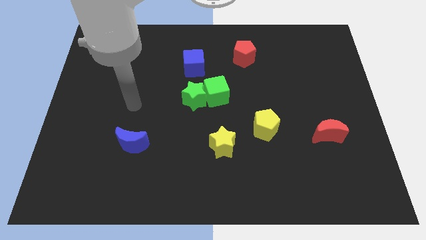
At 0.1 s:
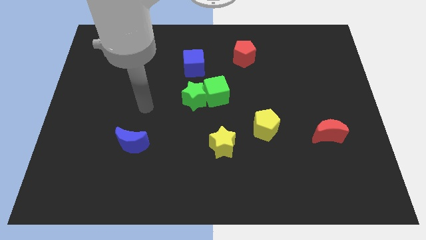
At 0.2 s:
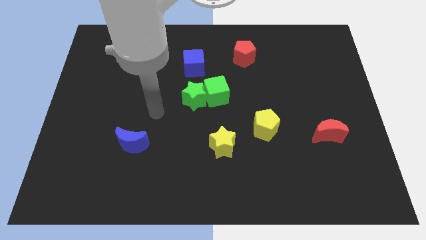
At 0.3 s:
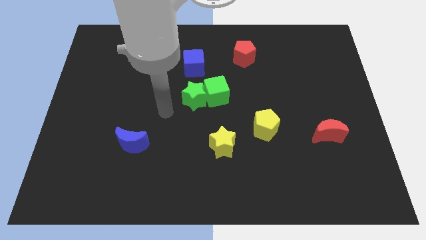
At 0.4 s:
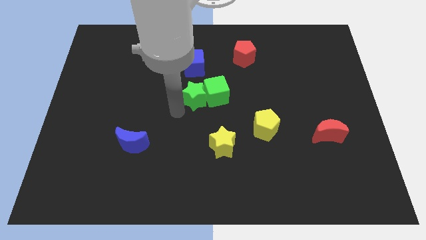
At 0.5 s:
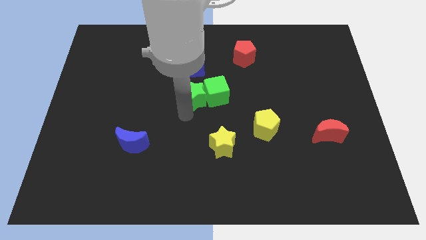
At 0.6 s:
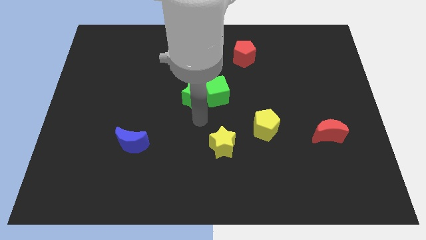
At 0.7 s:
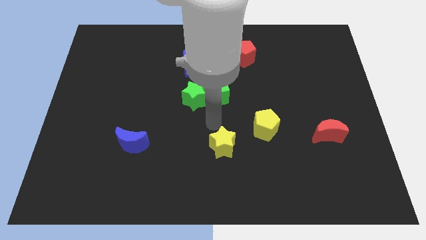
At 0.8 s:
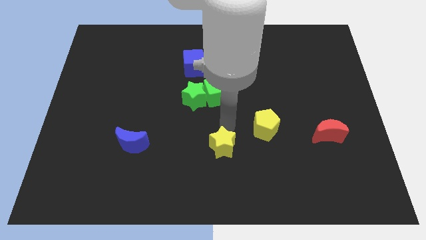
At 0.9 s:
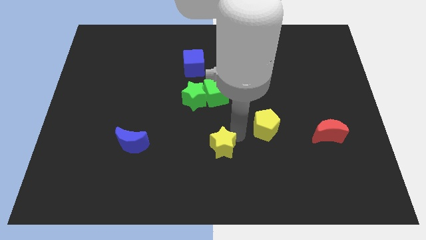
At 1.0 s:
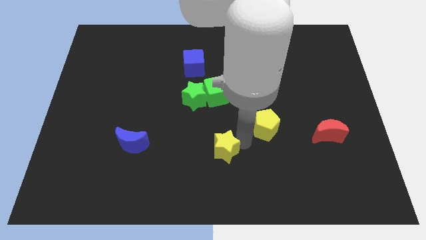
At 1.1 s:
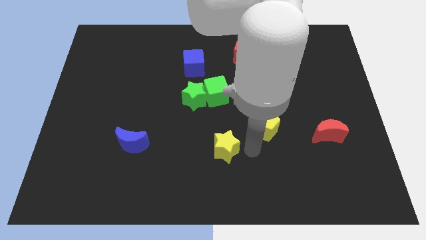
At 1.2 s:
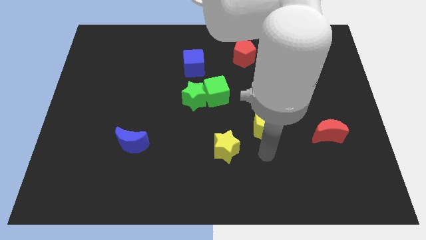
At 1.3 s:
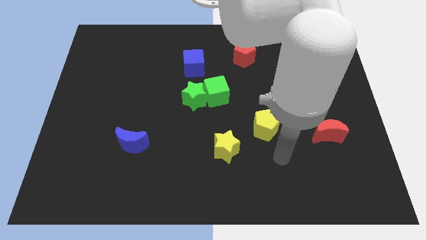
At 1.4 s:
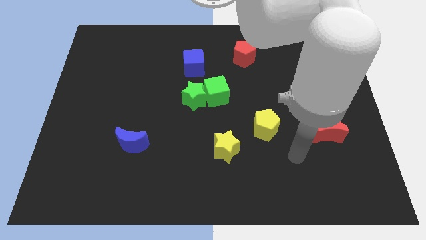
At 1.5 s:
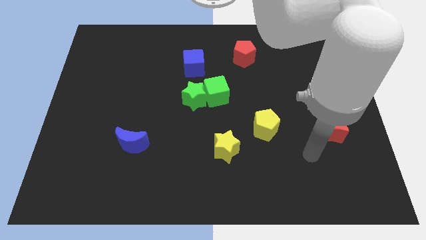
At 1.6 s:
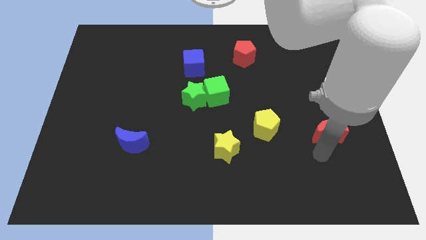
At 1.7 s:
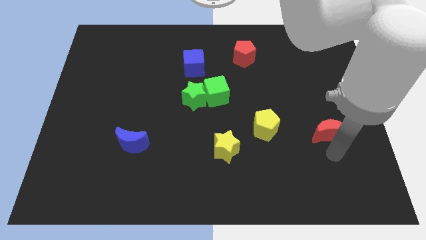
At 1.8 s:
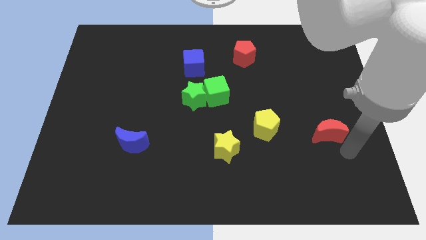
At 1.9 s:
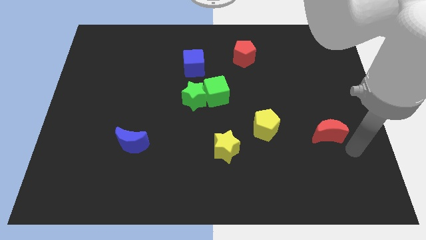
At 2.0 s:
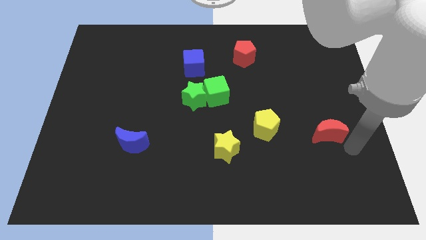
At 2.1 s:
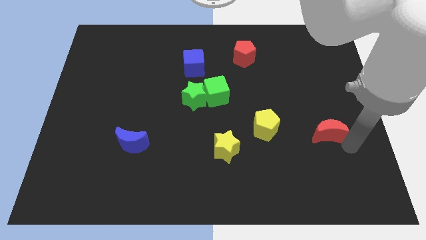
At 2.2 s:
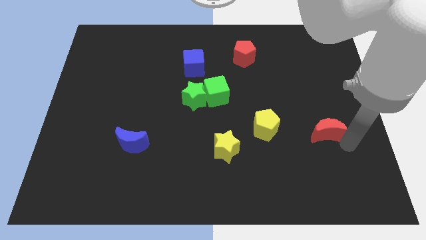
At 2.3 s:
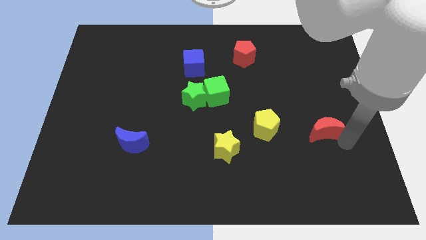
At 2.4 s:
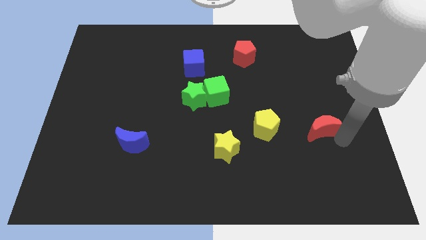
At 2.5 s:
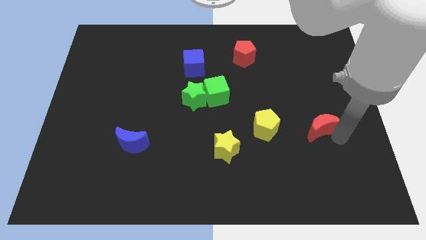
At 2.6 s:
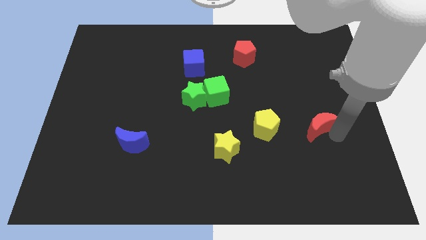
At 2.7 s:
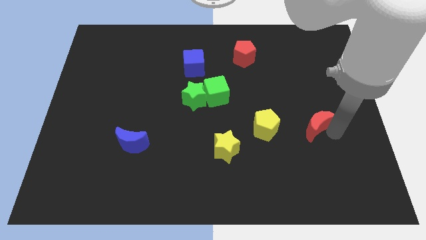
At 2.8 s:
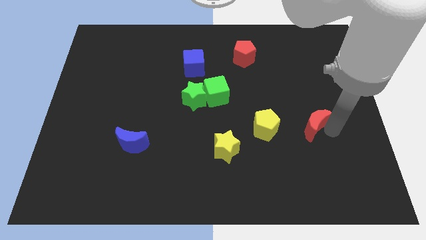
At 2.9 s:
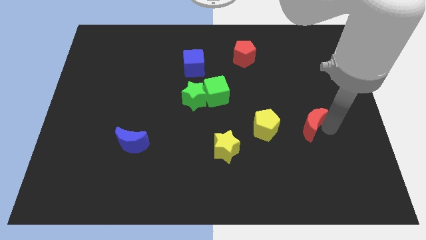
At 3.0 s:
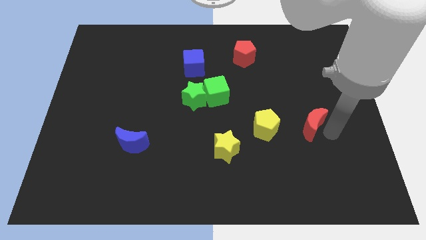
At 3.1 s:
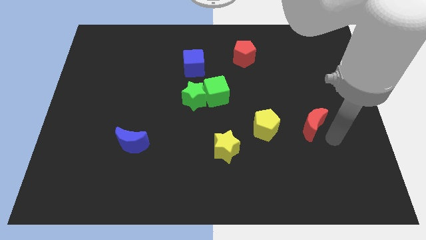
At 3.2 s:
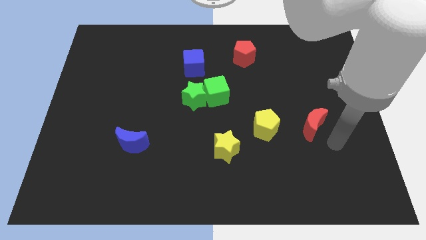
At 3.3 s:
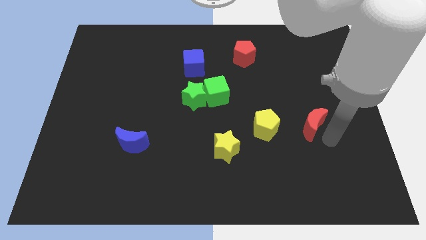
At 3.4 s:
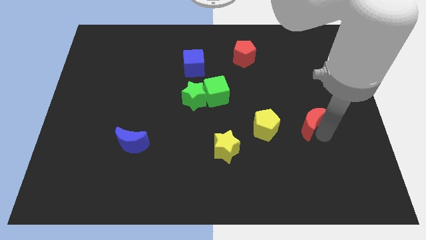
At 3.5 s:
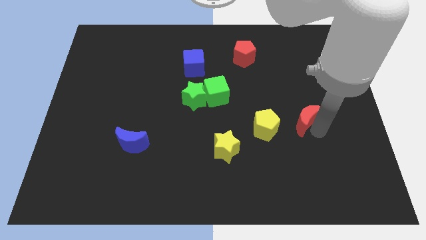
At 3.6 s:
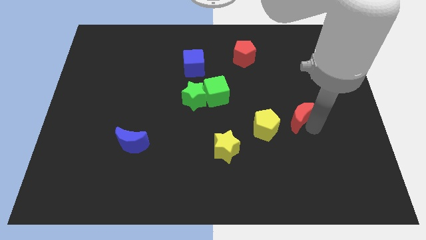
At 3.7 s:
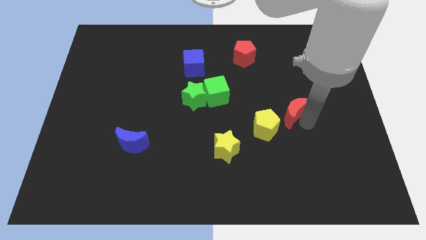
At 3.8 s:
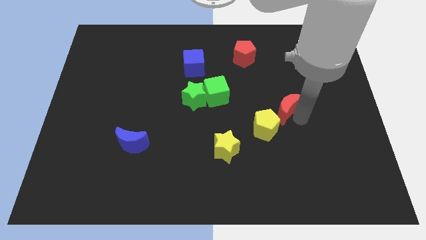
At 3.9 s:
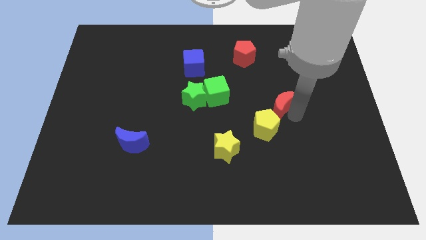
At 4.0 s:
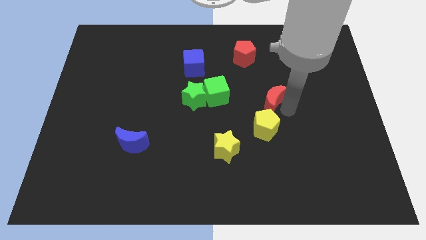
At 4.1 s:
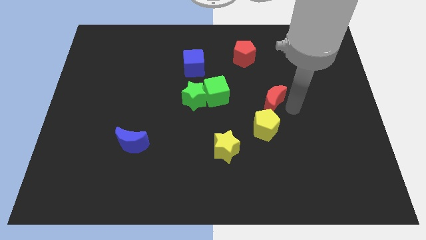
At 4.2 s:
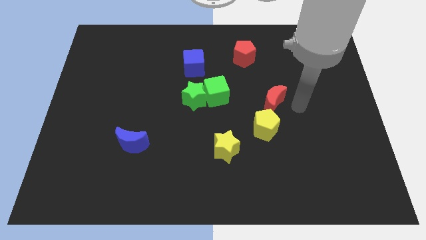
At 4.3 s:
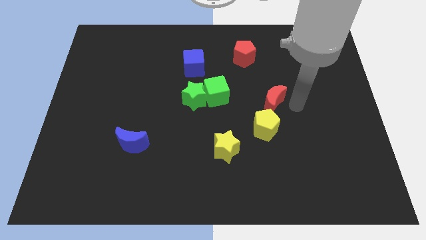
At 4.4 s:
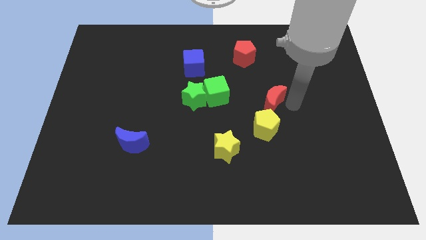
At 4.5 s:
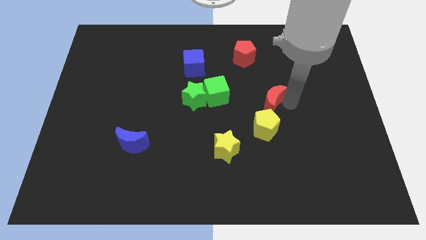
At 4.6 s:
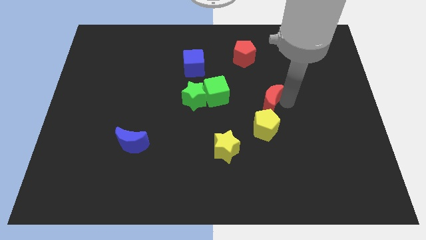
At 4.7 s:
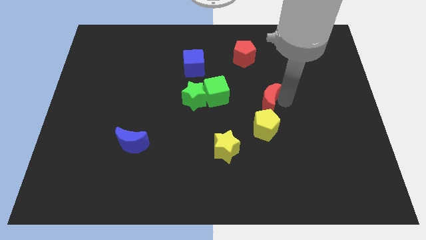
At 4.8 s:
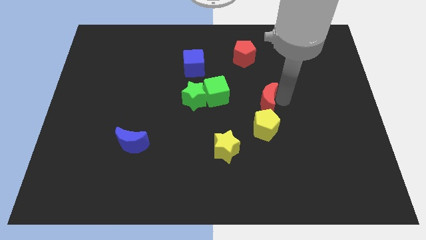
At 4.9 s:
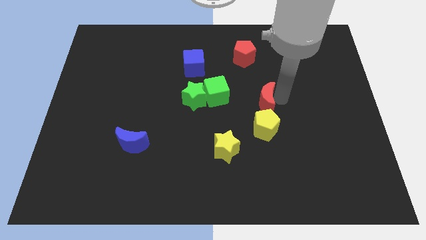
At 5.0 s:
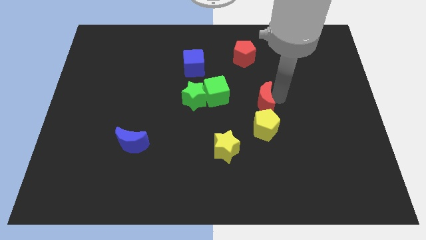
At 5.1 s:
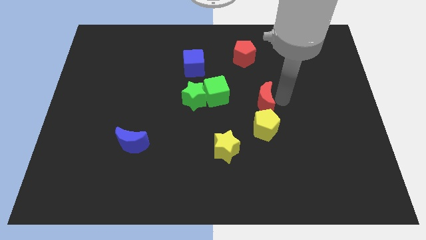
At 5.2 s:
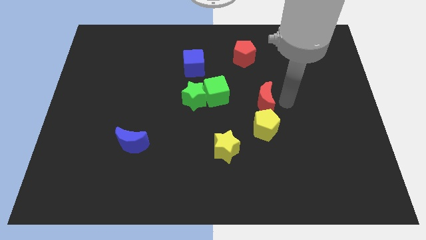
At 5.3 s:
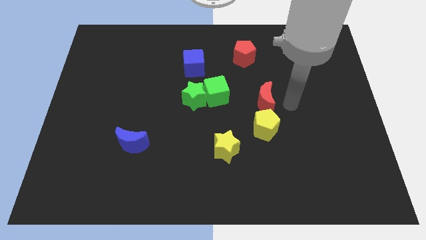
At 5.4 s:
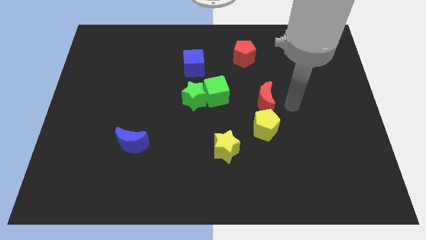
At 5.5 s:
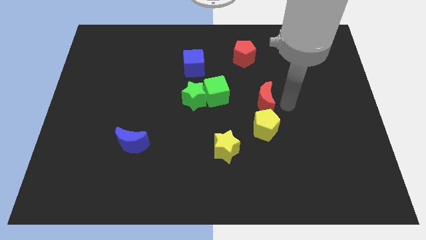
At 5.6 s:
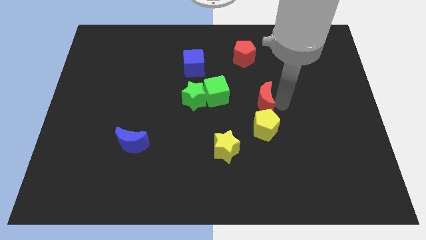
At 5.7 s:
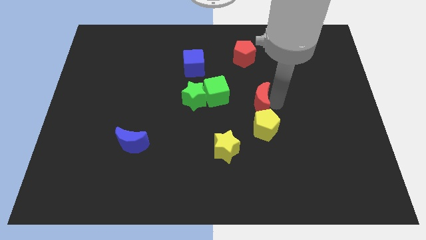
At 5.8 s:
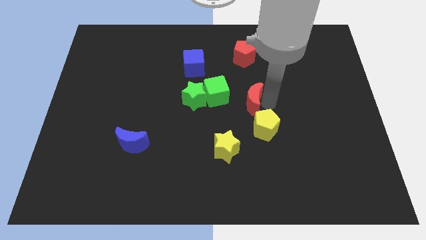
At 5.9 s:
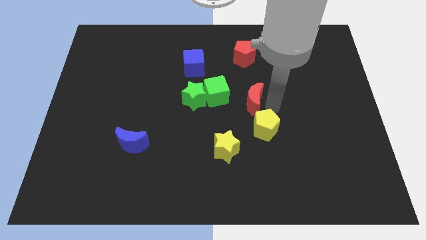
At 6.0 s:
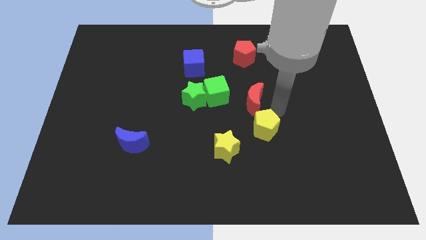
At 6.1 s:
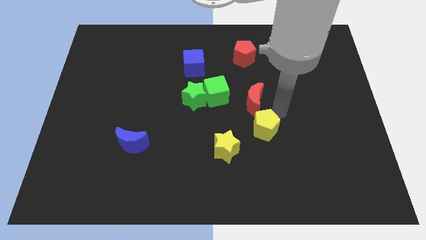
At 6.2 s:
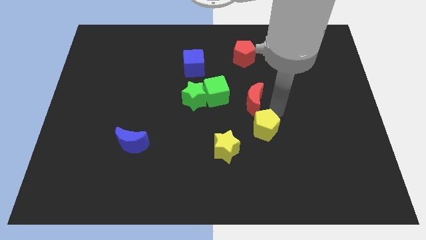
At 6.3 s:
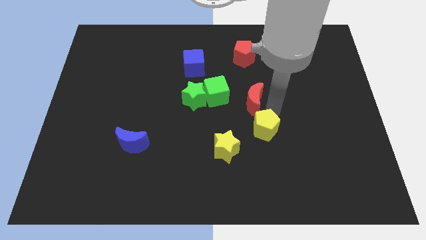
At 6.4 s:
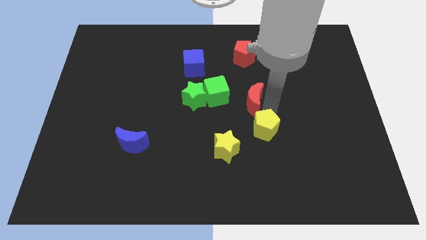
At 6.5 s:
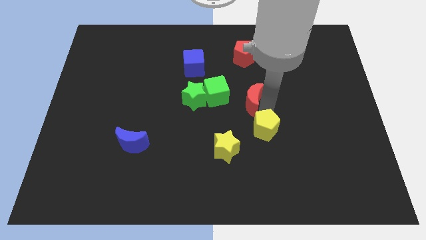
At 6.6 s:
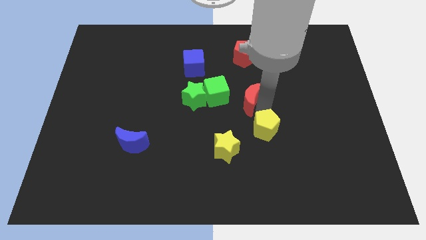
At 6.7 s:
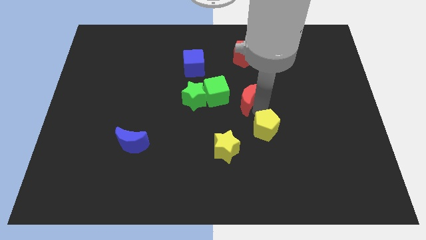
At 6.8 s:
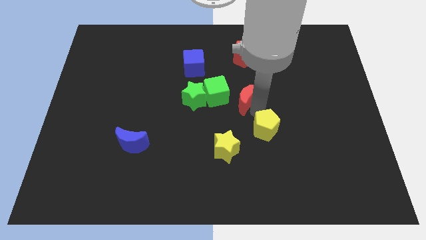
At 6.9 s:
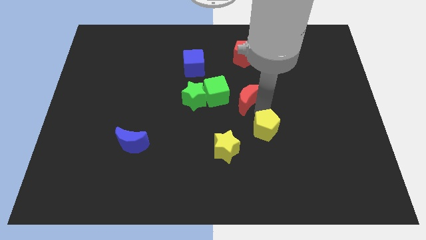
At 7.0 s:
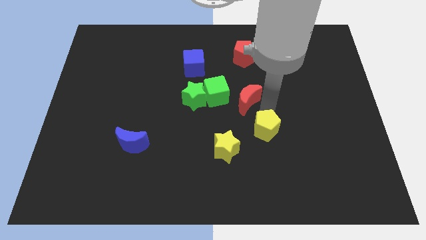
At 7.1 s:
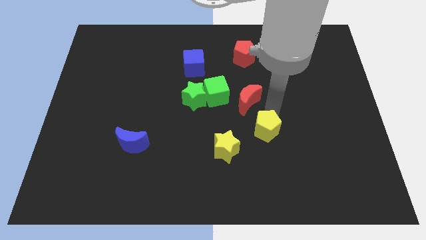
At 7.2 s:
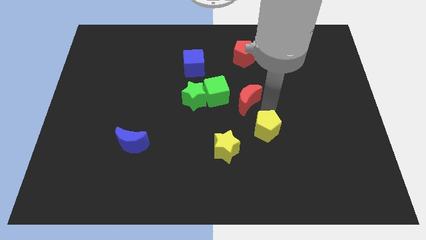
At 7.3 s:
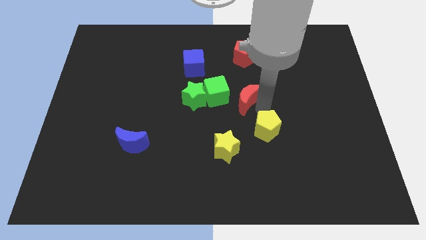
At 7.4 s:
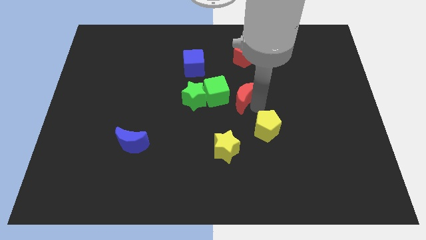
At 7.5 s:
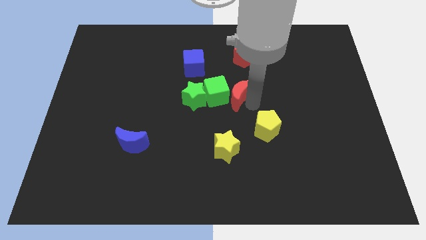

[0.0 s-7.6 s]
put the red moon towards the green cube

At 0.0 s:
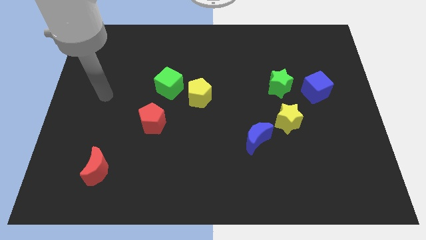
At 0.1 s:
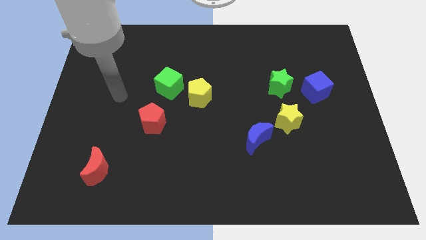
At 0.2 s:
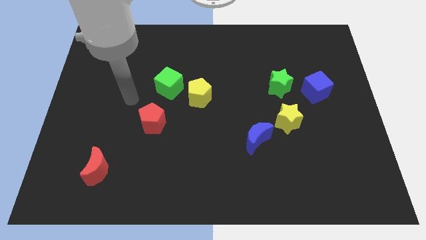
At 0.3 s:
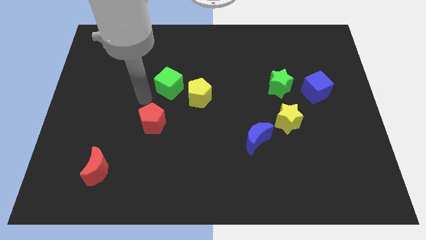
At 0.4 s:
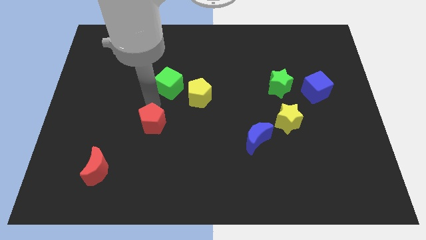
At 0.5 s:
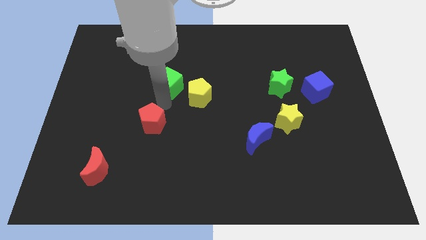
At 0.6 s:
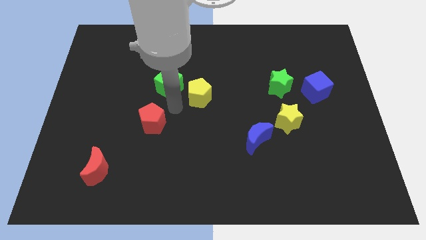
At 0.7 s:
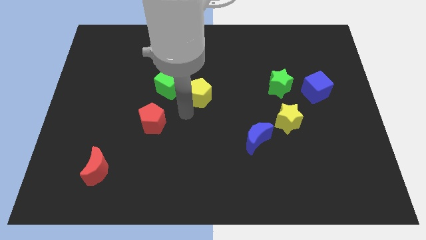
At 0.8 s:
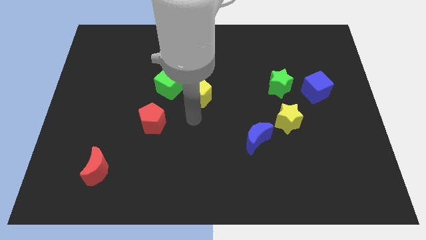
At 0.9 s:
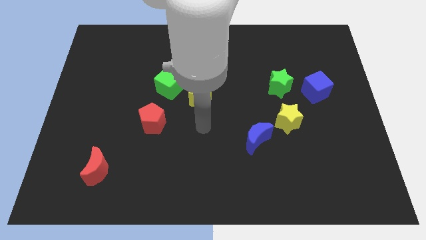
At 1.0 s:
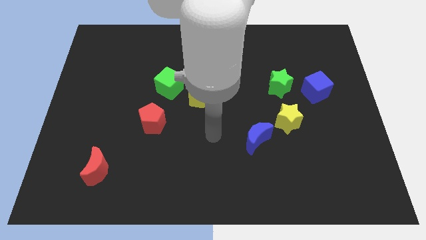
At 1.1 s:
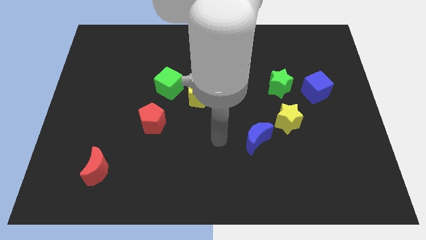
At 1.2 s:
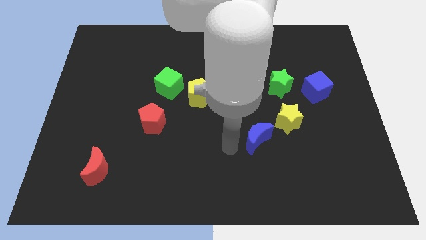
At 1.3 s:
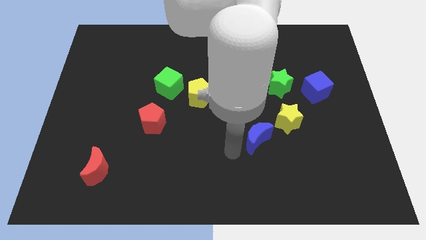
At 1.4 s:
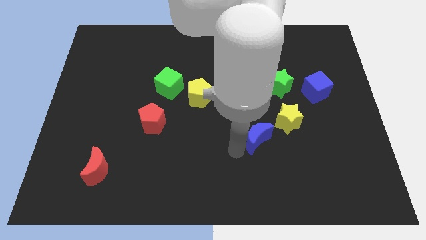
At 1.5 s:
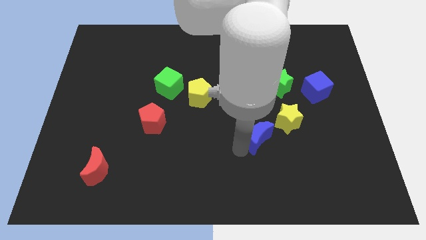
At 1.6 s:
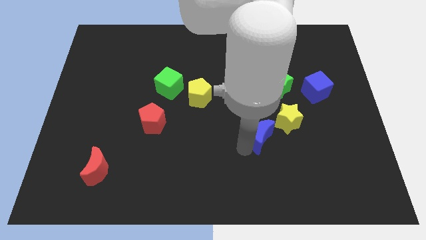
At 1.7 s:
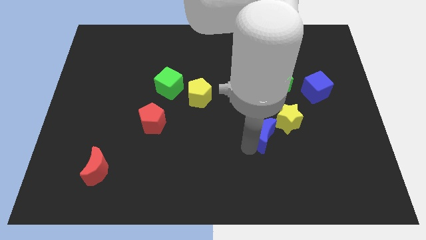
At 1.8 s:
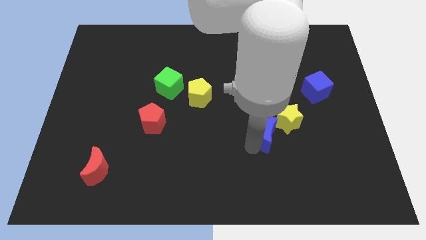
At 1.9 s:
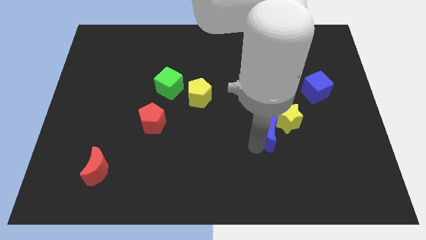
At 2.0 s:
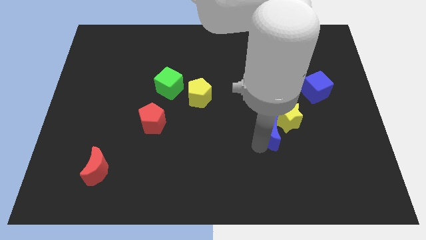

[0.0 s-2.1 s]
push the blue moon close to the yellow star
